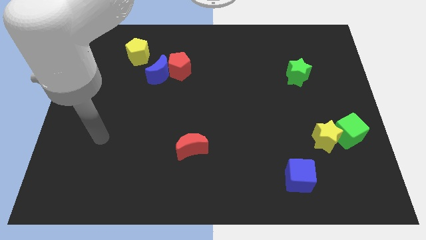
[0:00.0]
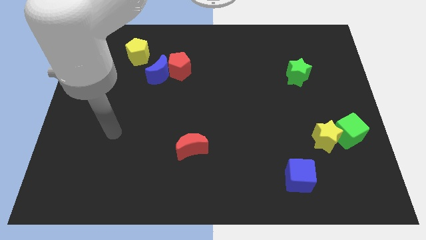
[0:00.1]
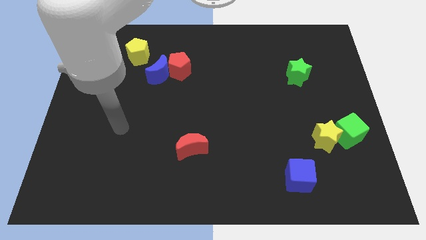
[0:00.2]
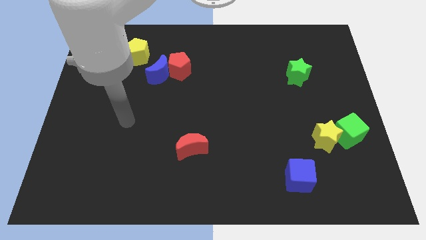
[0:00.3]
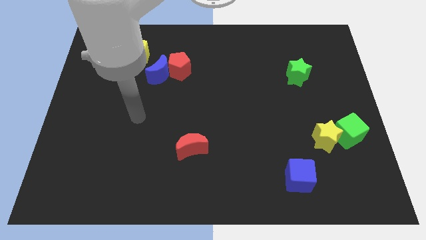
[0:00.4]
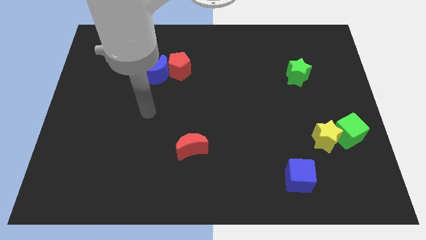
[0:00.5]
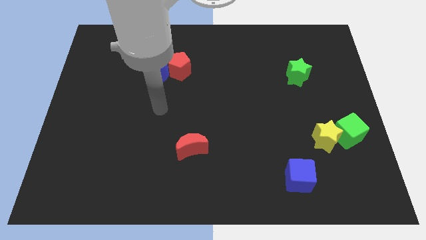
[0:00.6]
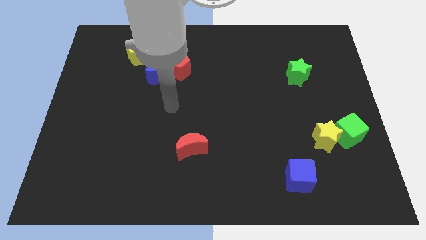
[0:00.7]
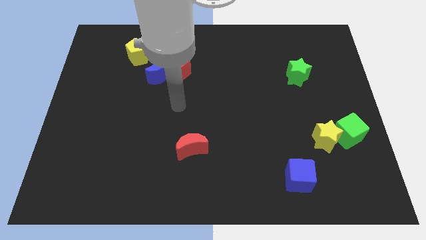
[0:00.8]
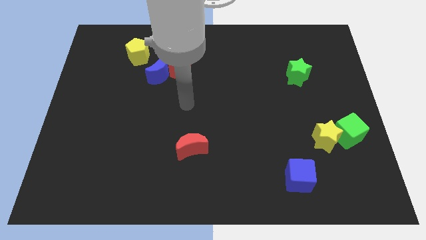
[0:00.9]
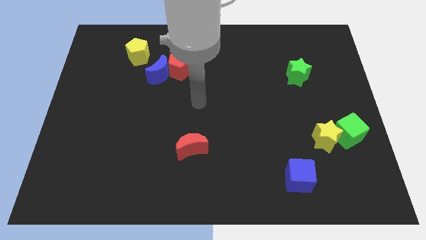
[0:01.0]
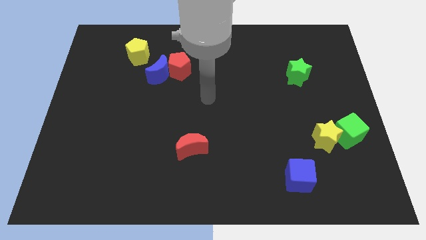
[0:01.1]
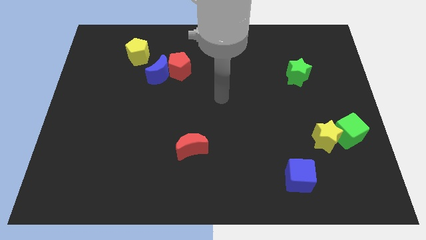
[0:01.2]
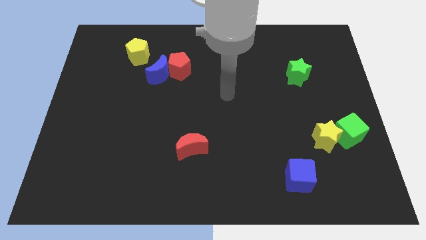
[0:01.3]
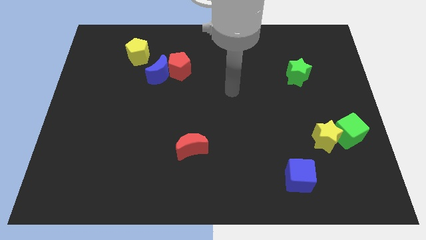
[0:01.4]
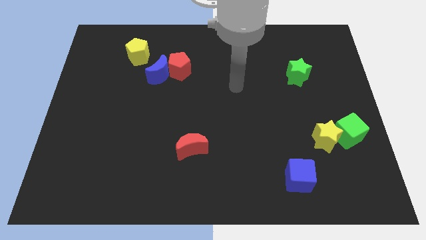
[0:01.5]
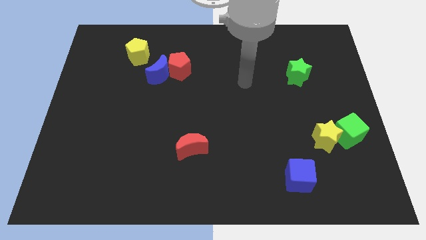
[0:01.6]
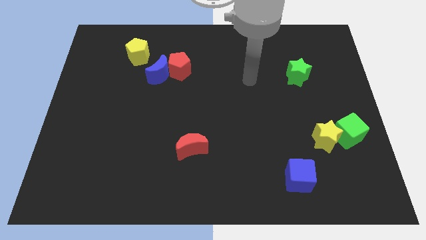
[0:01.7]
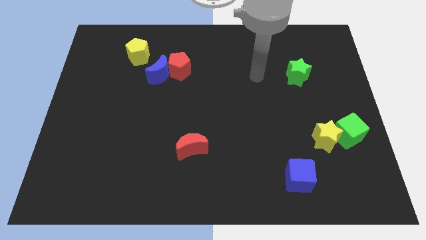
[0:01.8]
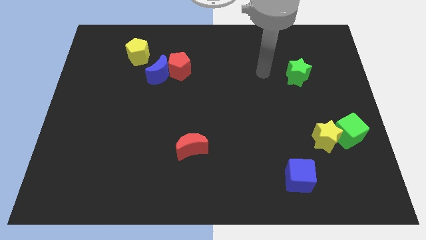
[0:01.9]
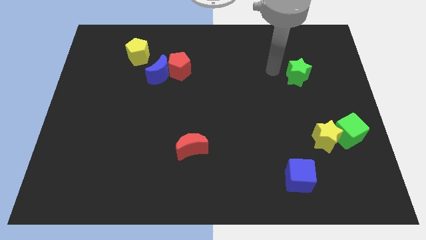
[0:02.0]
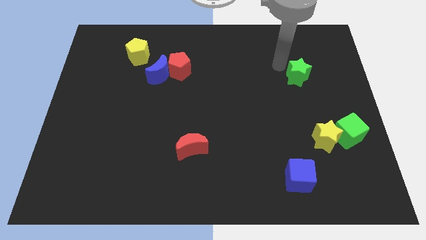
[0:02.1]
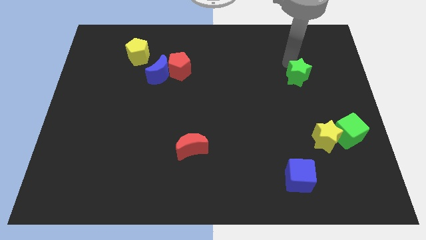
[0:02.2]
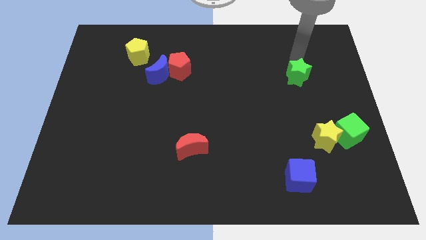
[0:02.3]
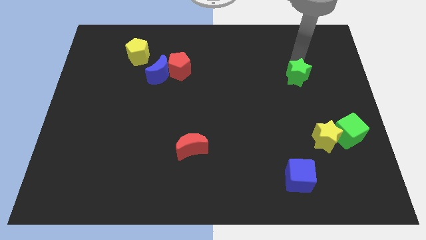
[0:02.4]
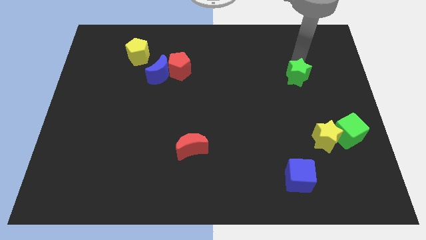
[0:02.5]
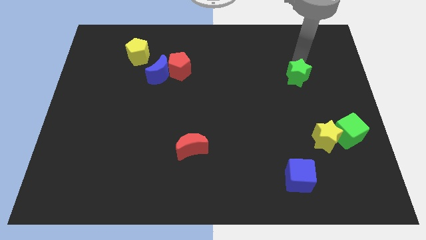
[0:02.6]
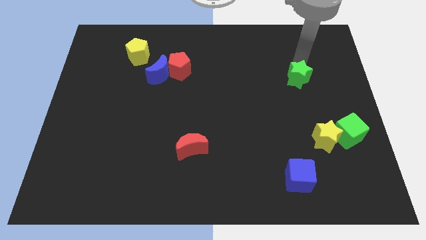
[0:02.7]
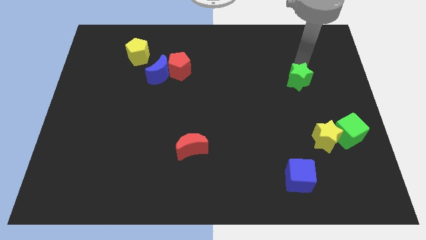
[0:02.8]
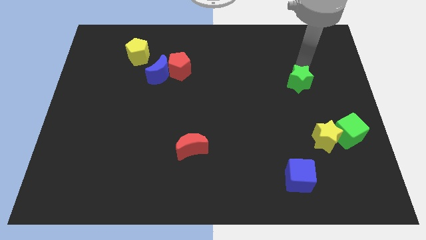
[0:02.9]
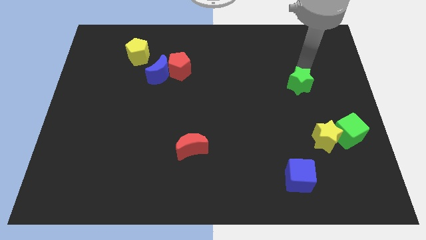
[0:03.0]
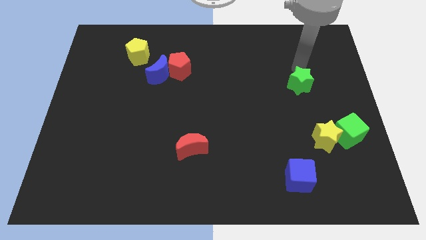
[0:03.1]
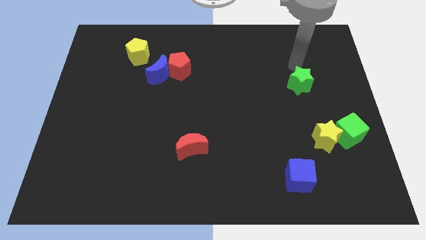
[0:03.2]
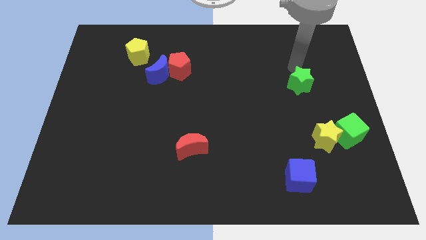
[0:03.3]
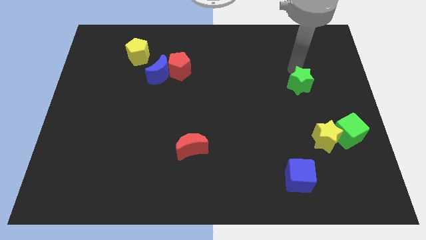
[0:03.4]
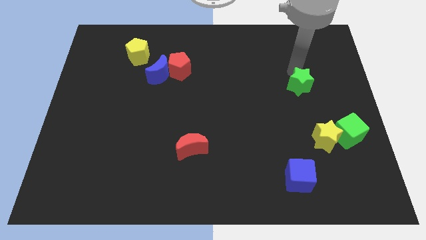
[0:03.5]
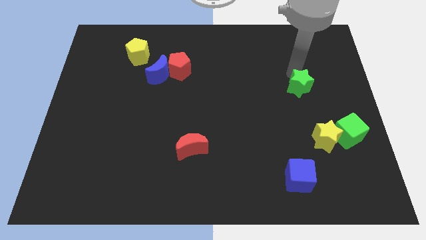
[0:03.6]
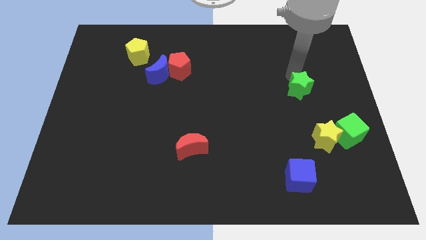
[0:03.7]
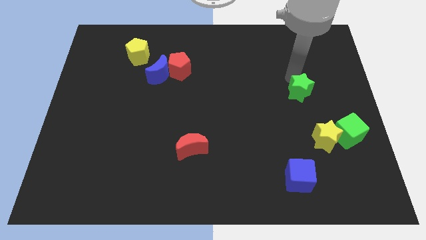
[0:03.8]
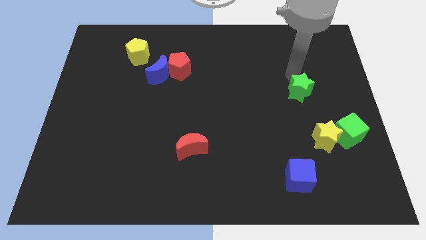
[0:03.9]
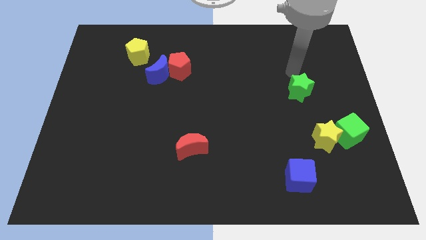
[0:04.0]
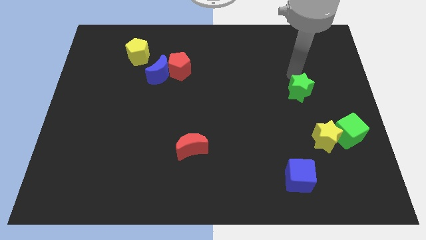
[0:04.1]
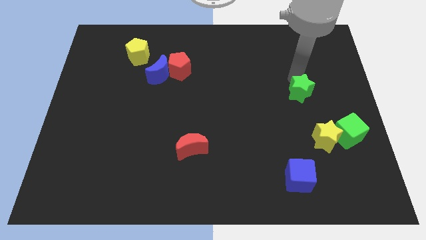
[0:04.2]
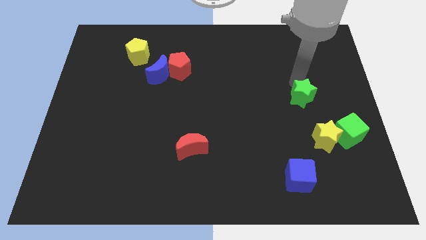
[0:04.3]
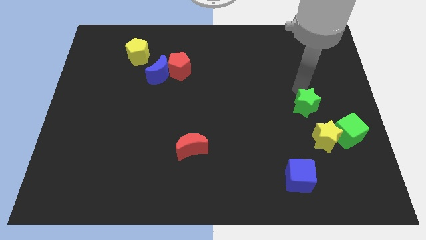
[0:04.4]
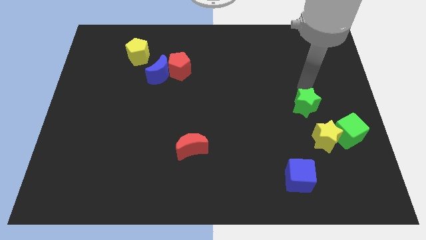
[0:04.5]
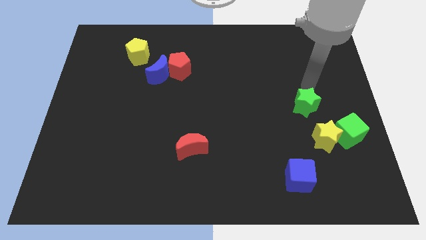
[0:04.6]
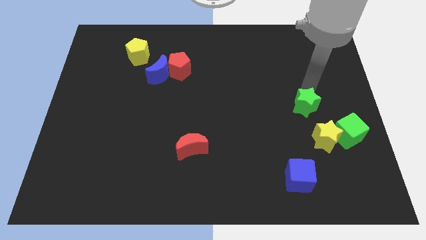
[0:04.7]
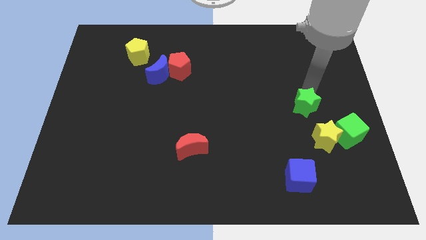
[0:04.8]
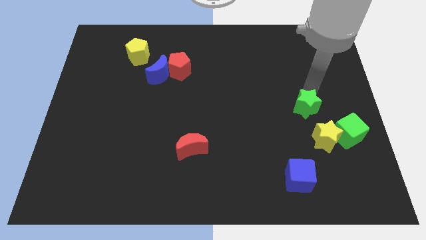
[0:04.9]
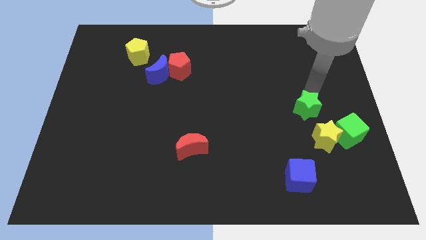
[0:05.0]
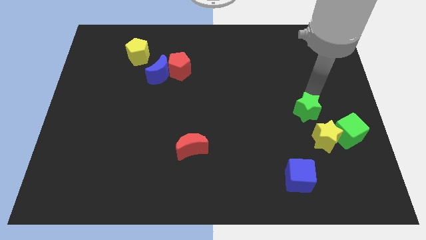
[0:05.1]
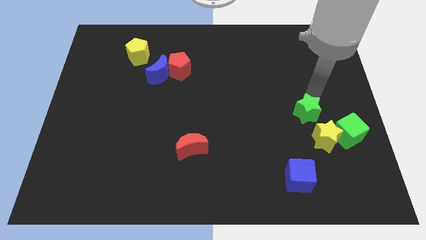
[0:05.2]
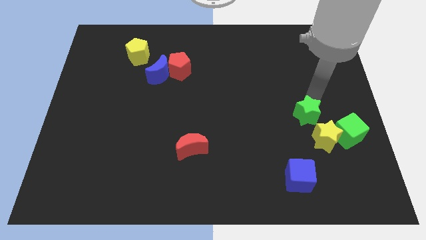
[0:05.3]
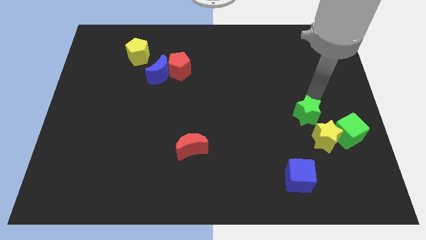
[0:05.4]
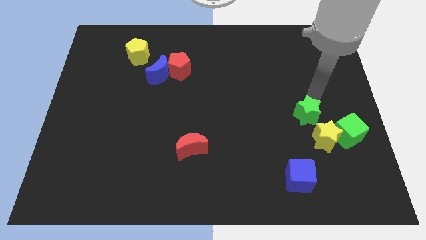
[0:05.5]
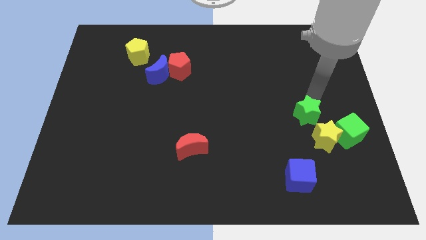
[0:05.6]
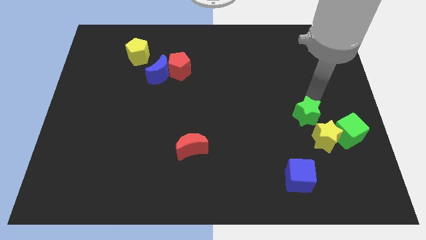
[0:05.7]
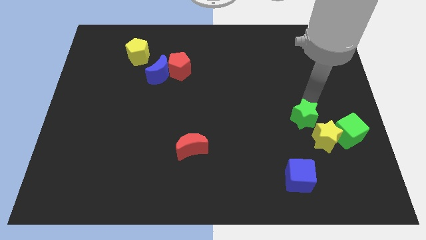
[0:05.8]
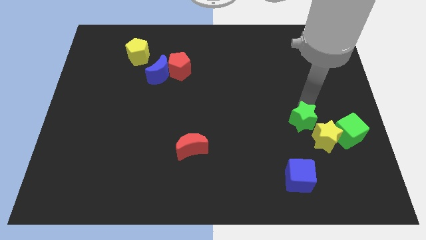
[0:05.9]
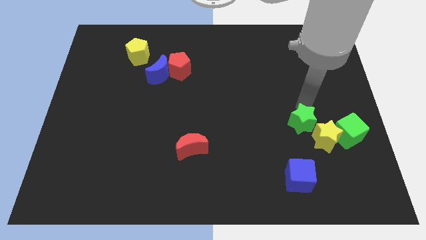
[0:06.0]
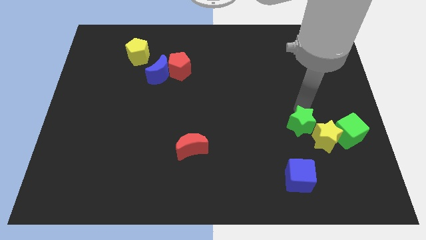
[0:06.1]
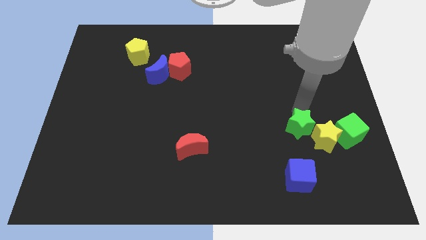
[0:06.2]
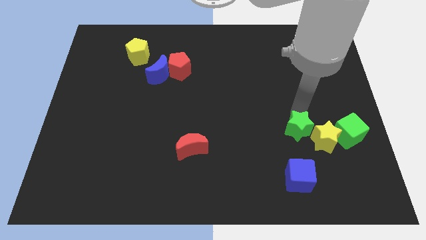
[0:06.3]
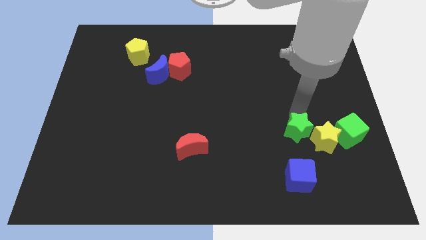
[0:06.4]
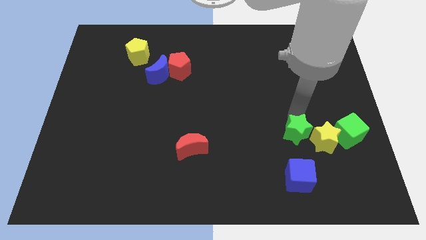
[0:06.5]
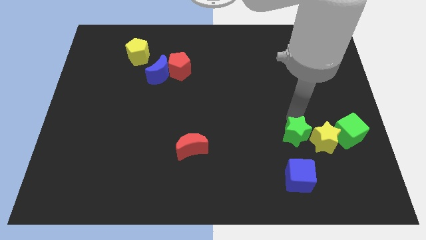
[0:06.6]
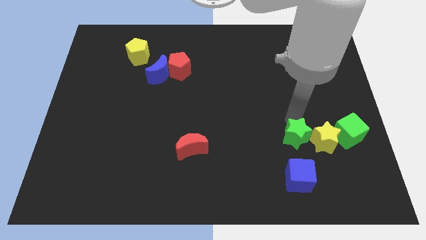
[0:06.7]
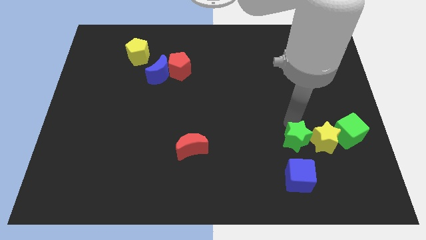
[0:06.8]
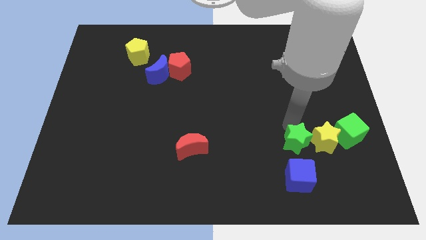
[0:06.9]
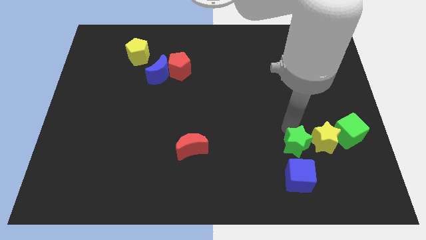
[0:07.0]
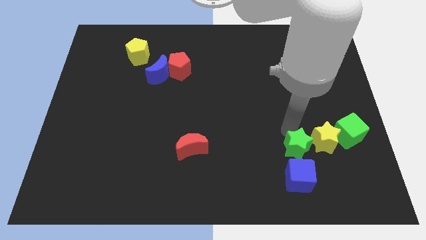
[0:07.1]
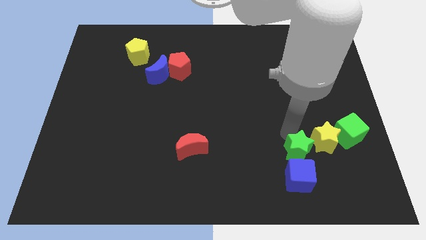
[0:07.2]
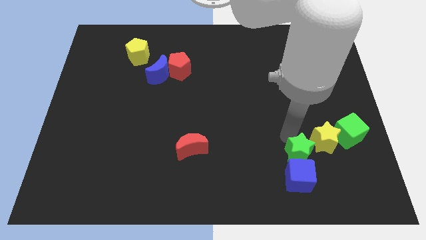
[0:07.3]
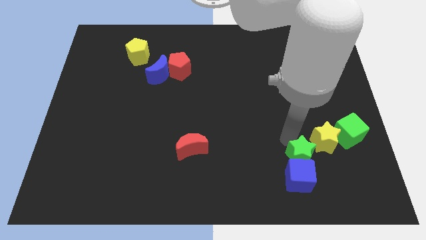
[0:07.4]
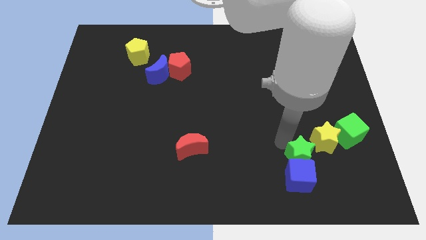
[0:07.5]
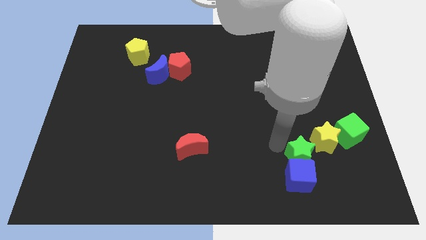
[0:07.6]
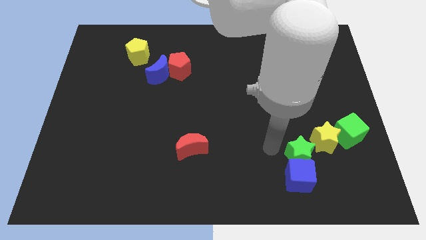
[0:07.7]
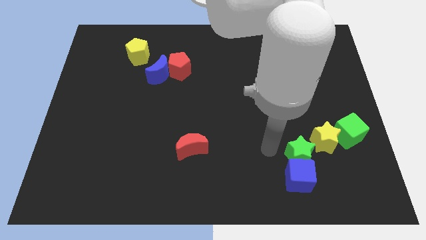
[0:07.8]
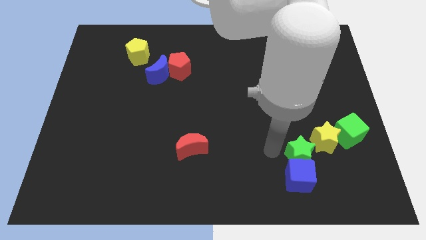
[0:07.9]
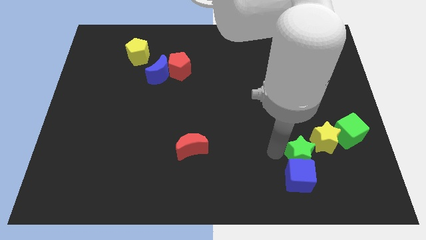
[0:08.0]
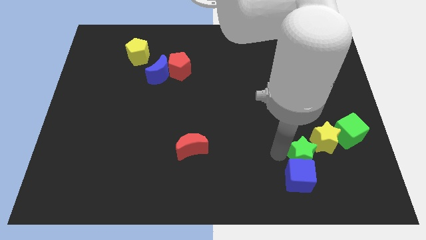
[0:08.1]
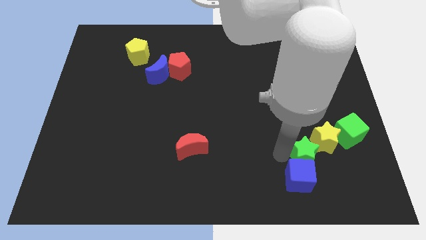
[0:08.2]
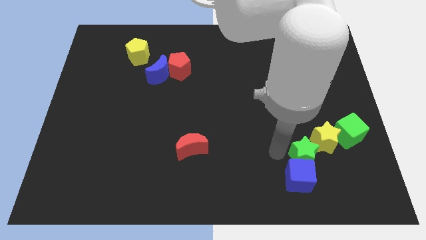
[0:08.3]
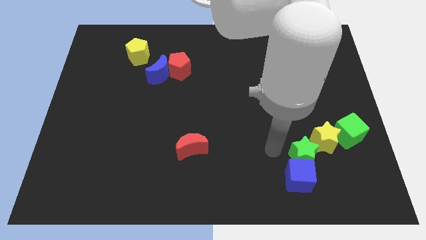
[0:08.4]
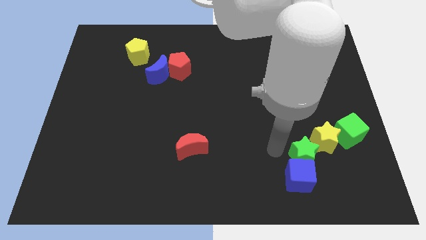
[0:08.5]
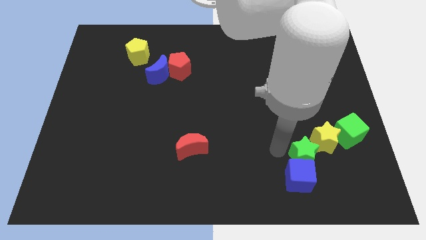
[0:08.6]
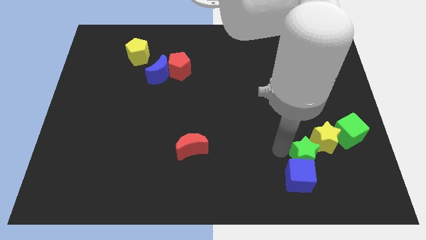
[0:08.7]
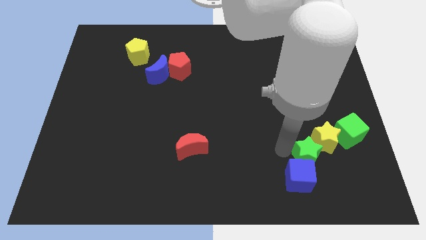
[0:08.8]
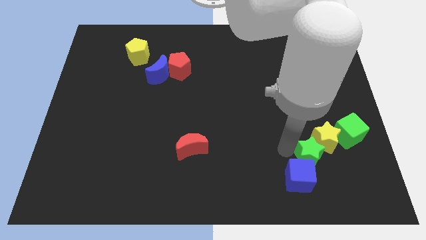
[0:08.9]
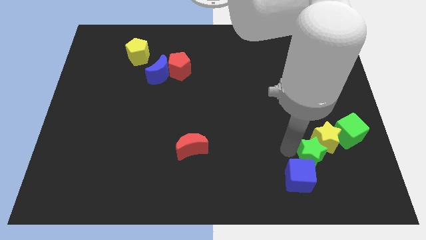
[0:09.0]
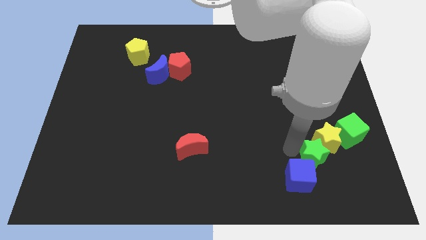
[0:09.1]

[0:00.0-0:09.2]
put the green star to the right side of the blue cube
